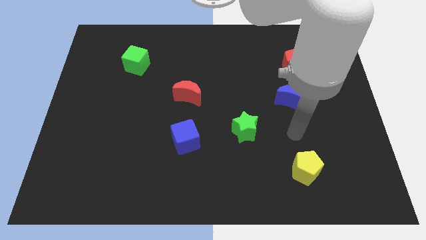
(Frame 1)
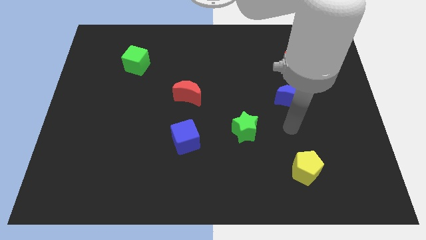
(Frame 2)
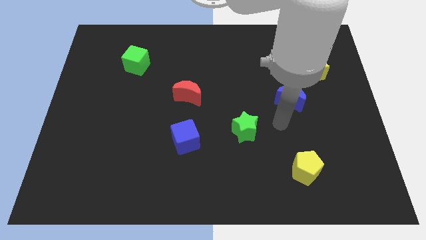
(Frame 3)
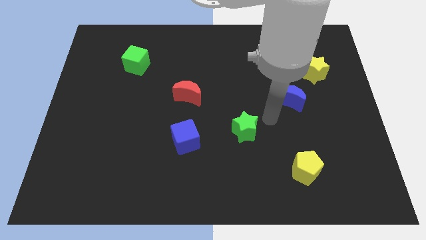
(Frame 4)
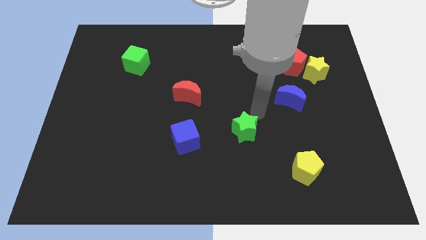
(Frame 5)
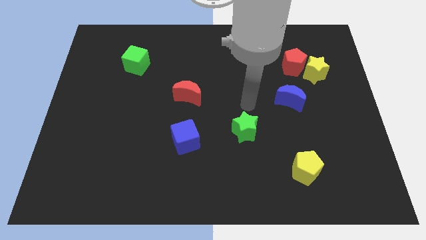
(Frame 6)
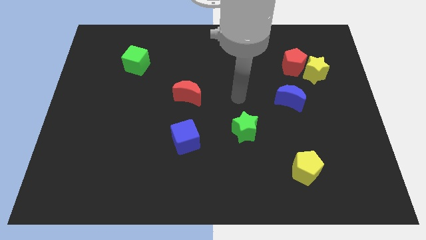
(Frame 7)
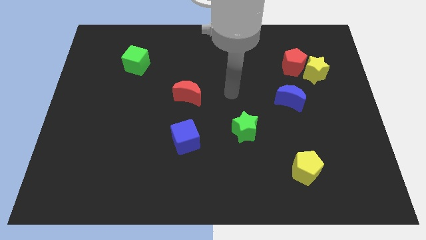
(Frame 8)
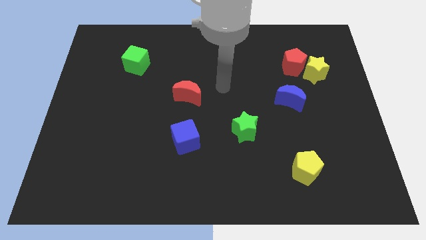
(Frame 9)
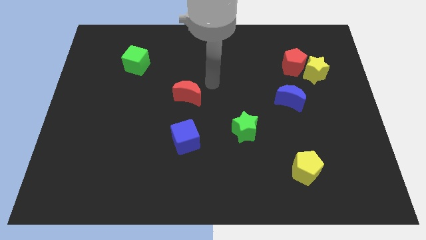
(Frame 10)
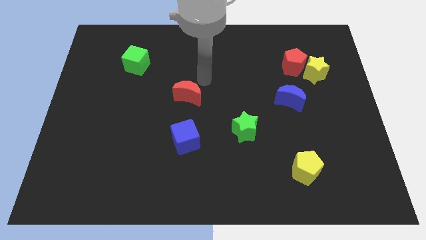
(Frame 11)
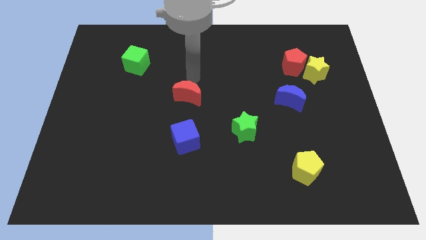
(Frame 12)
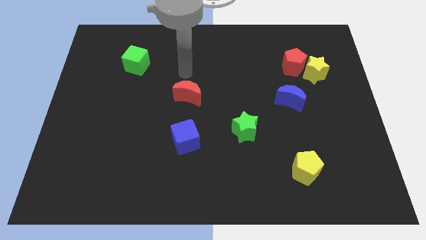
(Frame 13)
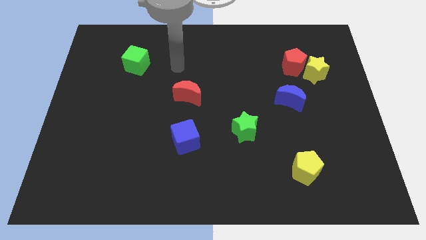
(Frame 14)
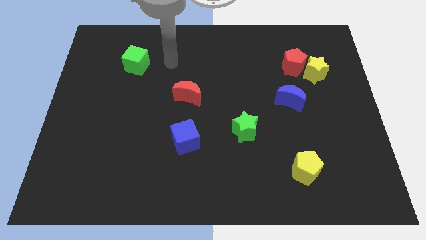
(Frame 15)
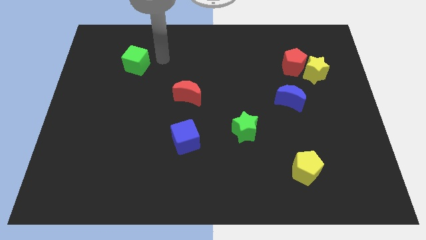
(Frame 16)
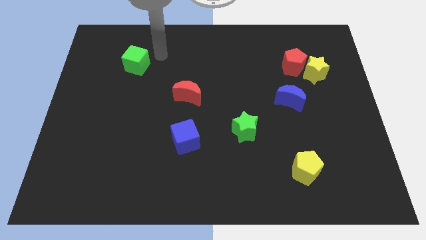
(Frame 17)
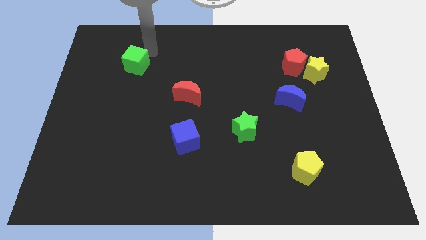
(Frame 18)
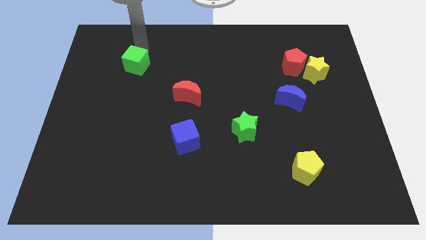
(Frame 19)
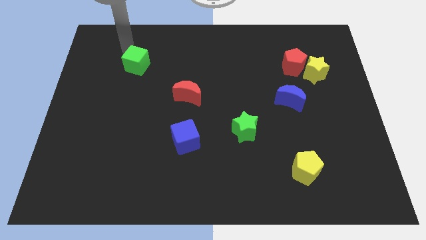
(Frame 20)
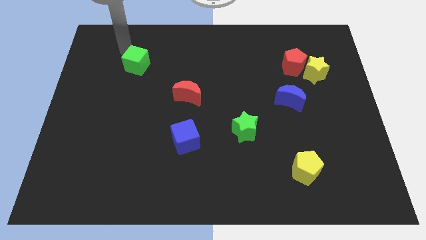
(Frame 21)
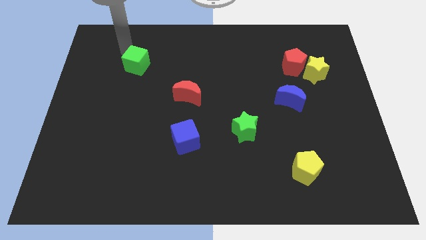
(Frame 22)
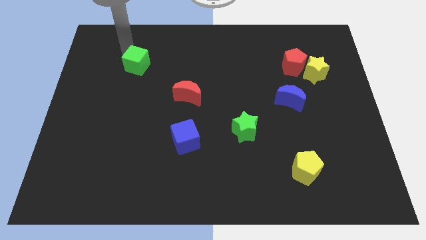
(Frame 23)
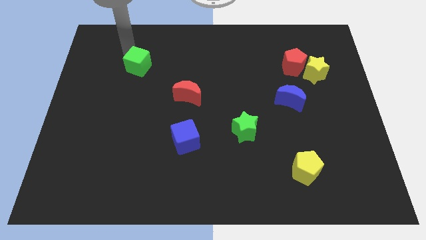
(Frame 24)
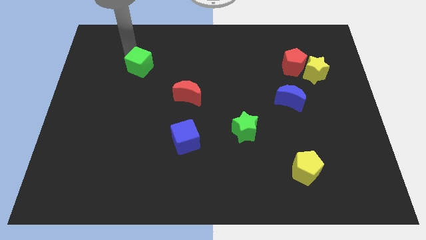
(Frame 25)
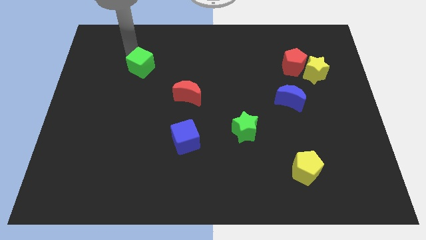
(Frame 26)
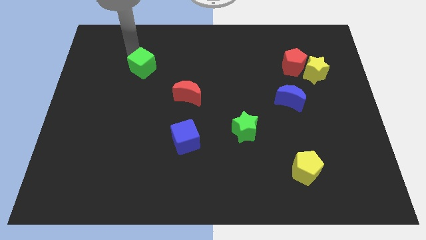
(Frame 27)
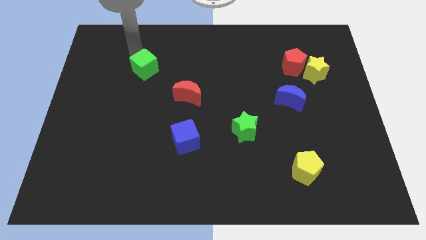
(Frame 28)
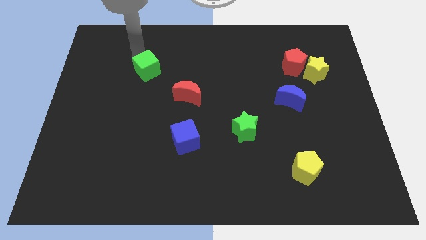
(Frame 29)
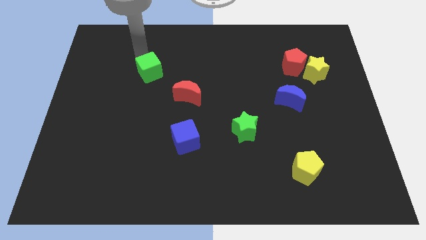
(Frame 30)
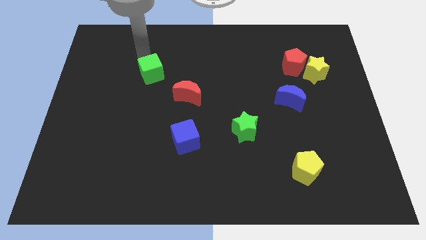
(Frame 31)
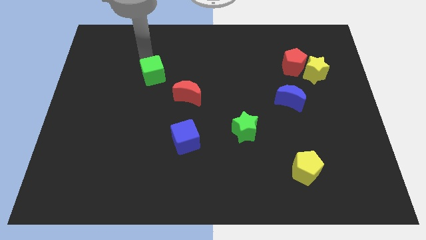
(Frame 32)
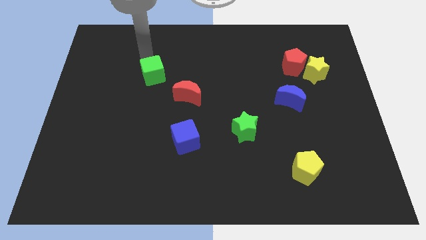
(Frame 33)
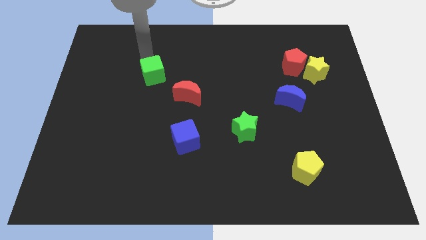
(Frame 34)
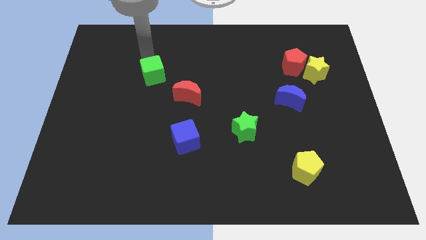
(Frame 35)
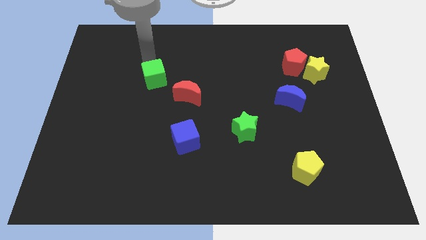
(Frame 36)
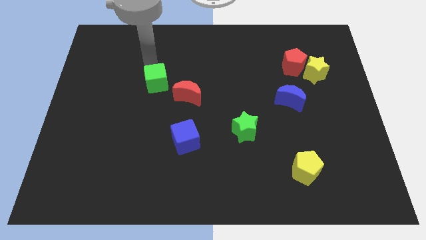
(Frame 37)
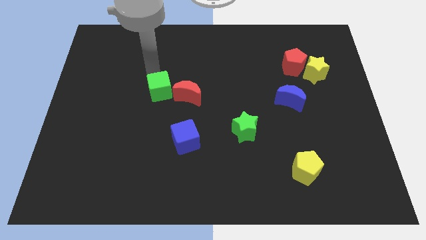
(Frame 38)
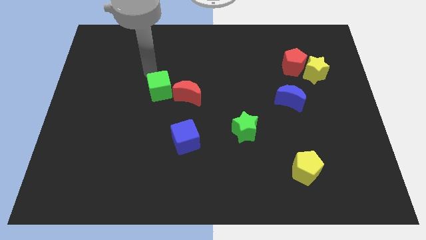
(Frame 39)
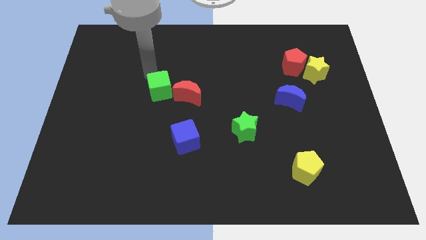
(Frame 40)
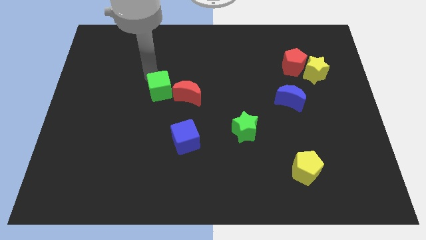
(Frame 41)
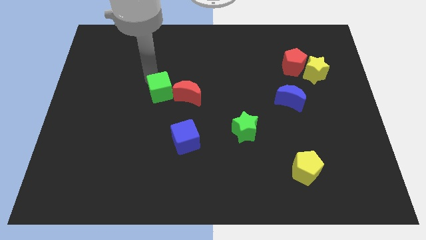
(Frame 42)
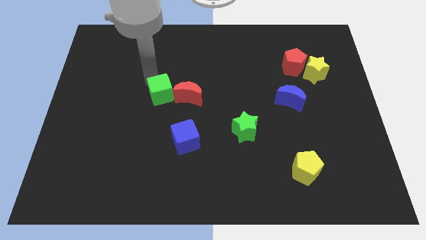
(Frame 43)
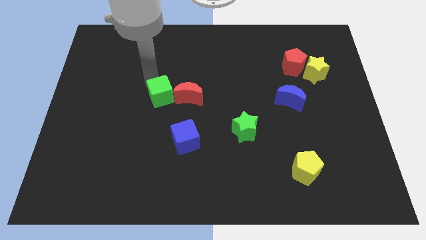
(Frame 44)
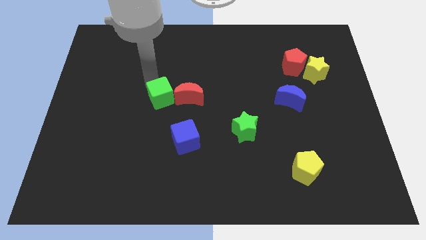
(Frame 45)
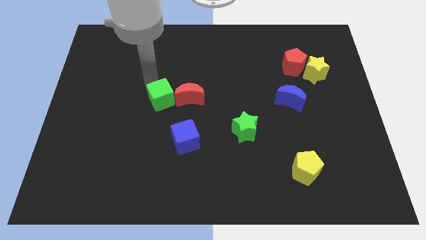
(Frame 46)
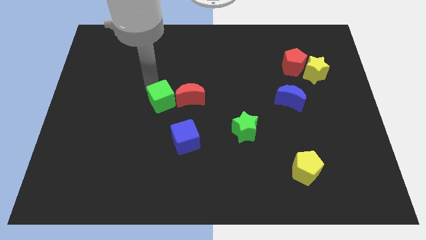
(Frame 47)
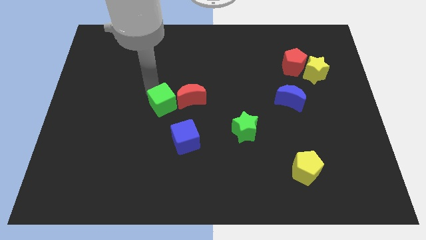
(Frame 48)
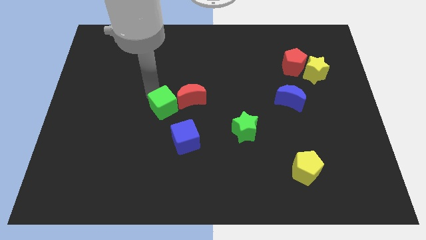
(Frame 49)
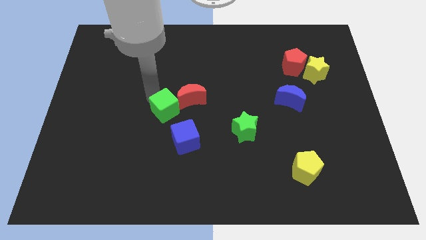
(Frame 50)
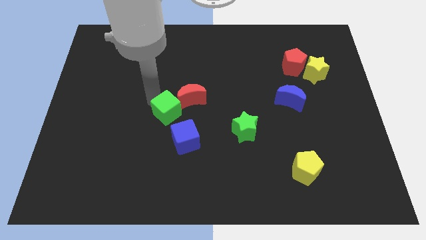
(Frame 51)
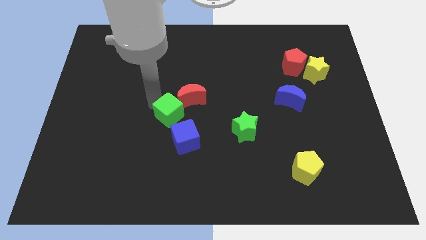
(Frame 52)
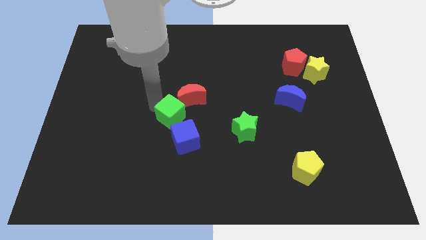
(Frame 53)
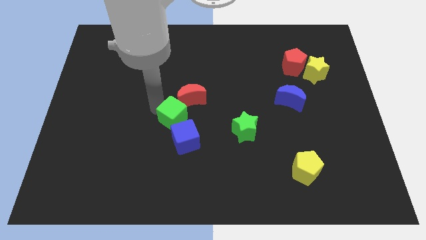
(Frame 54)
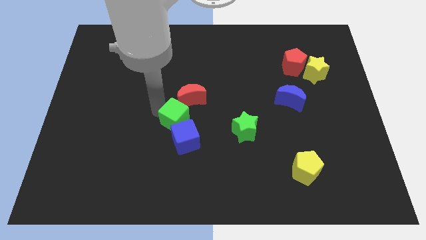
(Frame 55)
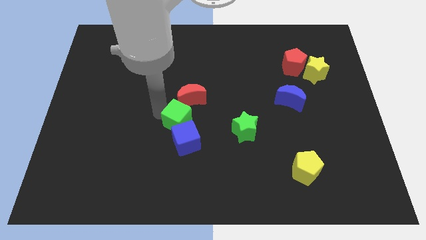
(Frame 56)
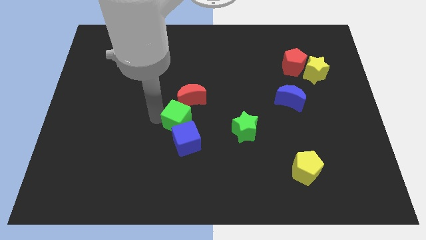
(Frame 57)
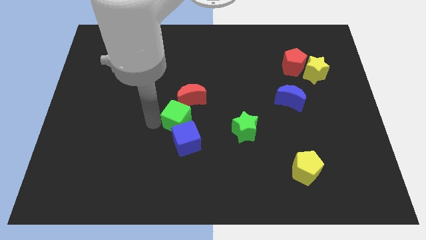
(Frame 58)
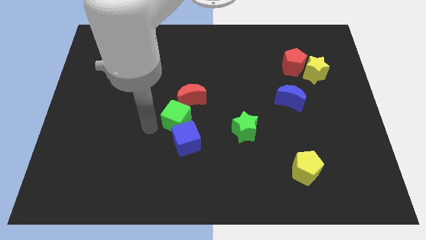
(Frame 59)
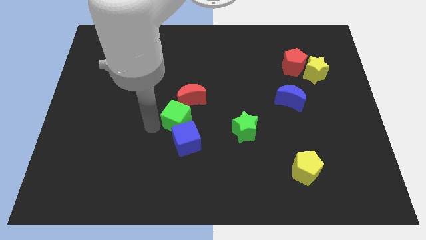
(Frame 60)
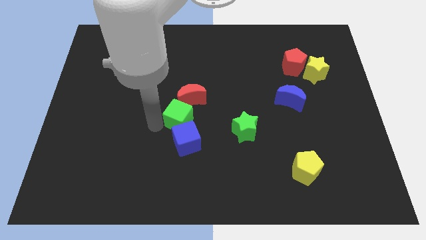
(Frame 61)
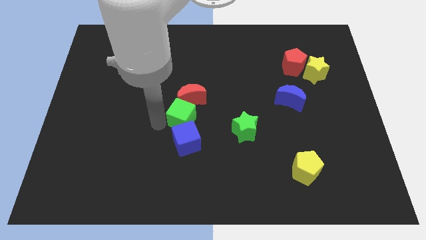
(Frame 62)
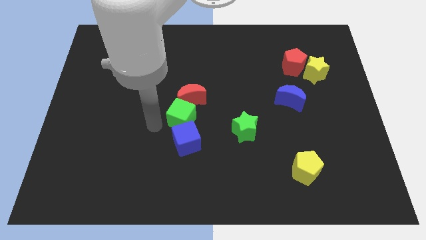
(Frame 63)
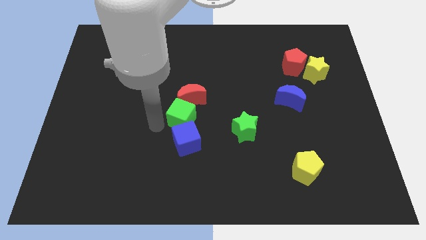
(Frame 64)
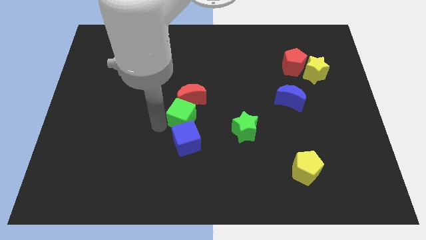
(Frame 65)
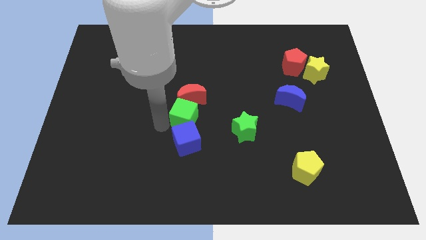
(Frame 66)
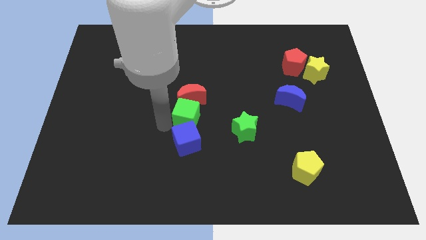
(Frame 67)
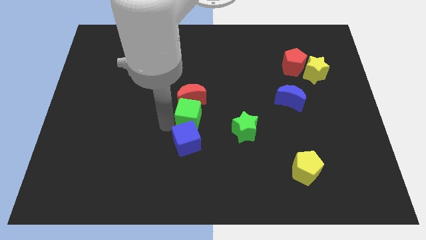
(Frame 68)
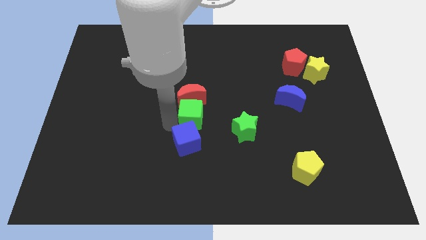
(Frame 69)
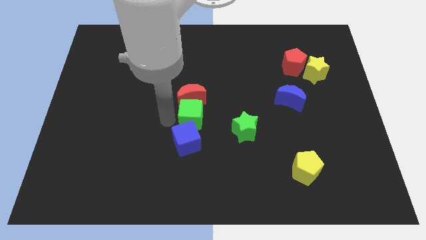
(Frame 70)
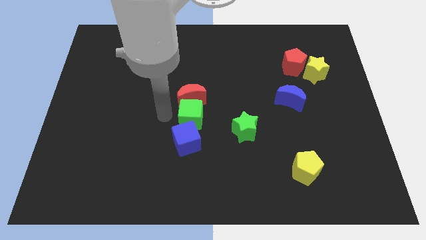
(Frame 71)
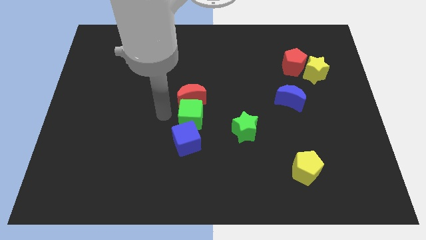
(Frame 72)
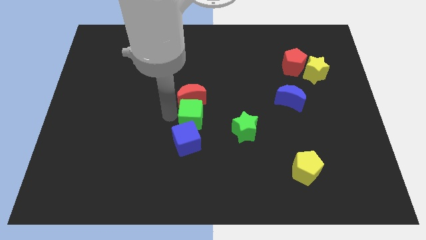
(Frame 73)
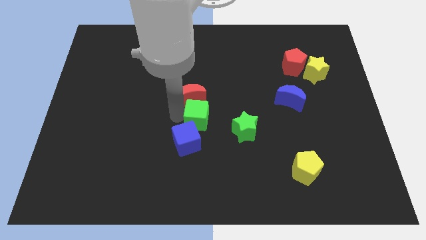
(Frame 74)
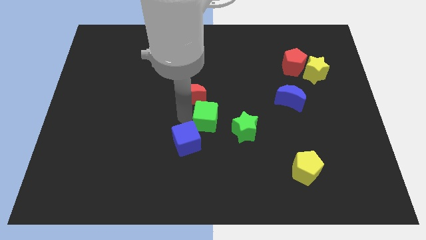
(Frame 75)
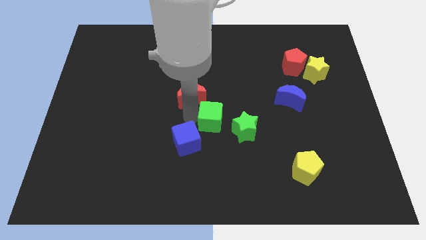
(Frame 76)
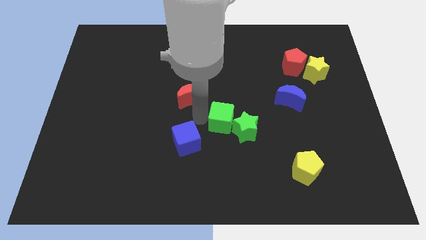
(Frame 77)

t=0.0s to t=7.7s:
push the green cube towards the green star
